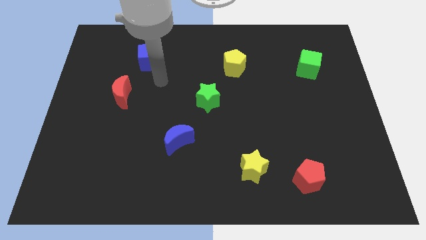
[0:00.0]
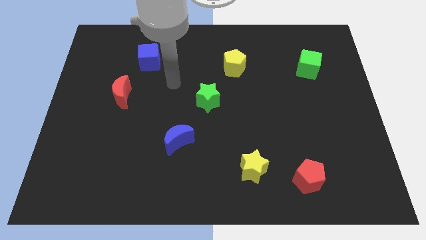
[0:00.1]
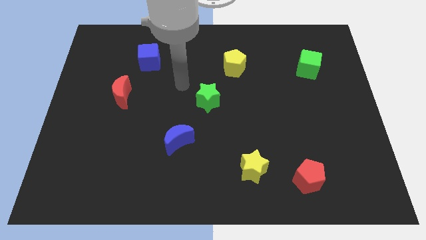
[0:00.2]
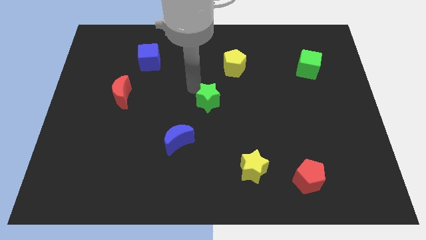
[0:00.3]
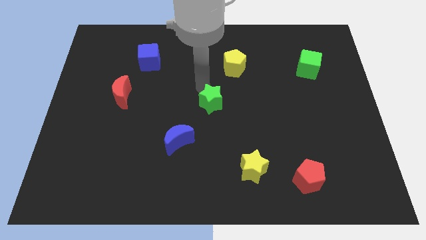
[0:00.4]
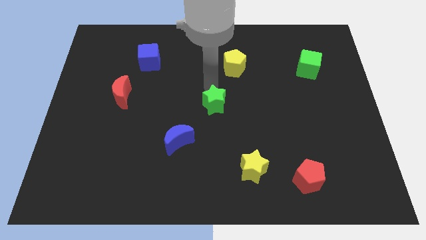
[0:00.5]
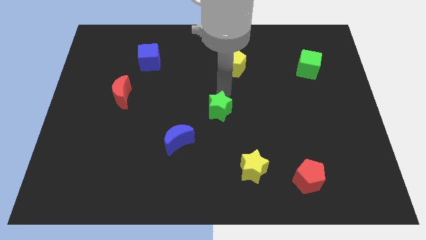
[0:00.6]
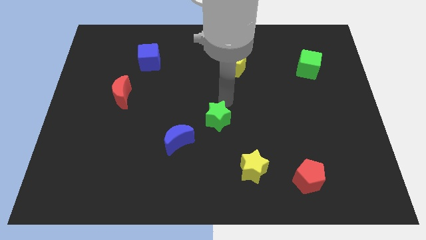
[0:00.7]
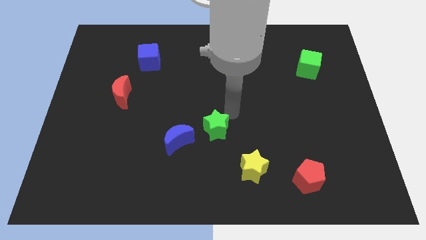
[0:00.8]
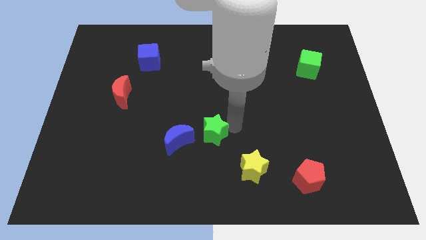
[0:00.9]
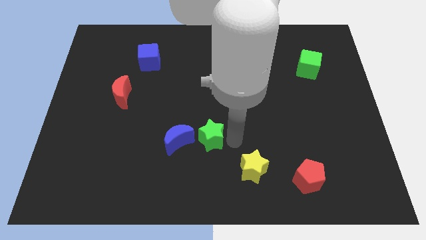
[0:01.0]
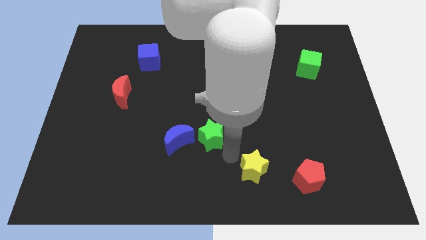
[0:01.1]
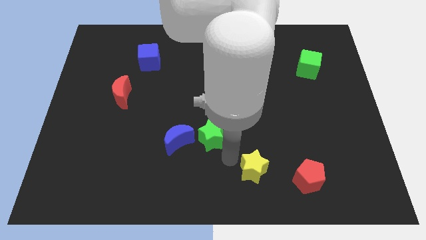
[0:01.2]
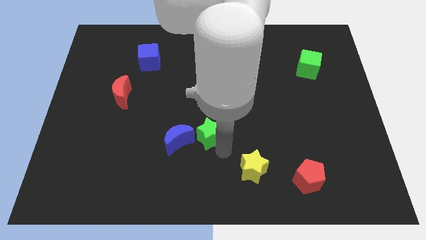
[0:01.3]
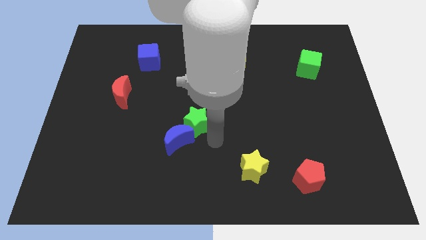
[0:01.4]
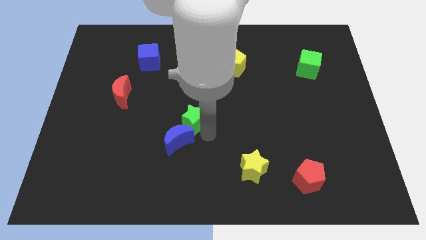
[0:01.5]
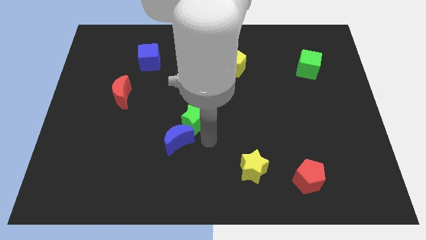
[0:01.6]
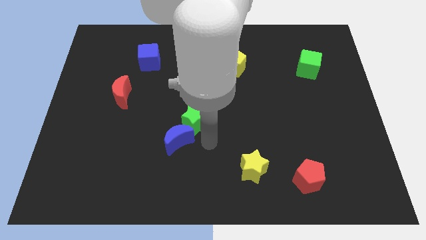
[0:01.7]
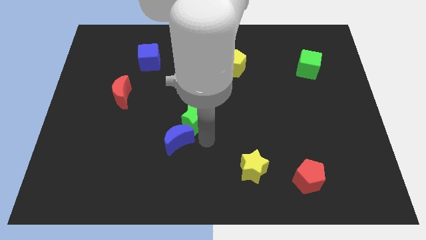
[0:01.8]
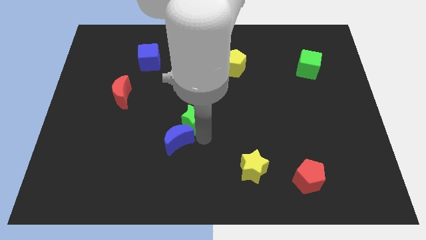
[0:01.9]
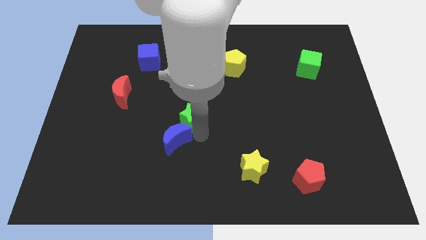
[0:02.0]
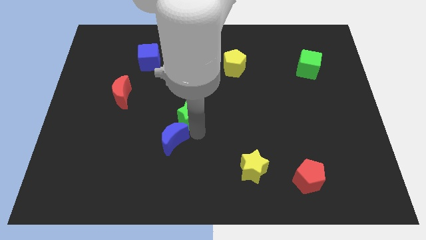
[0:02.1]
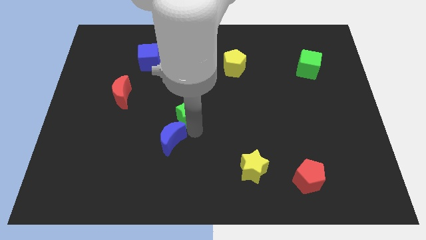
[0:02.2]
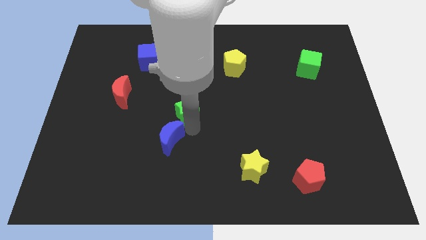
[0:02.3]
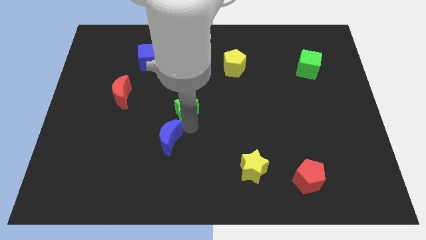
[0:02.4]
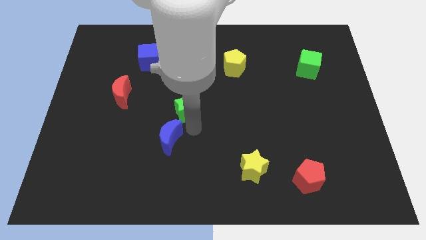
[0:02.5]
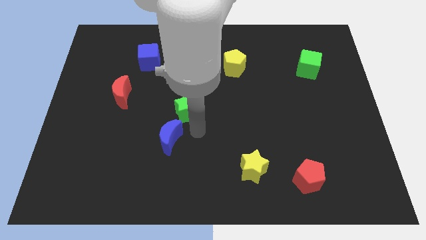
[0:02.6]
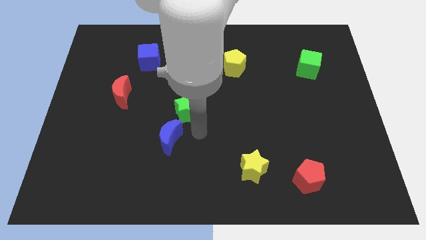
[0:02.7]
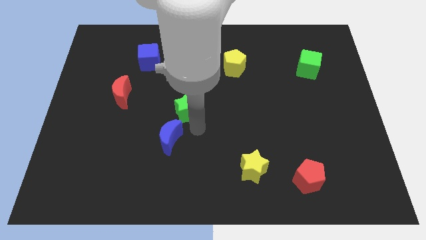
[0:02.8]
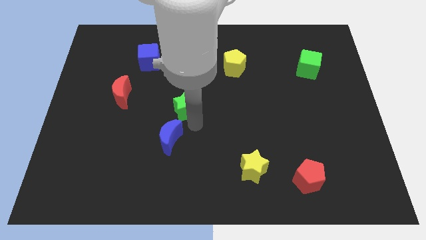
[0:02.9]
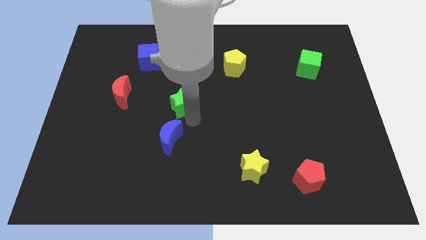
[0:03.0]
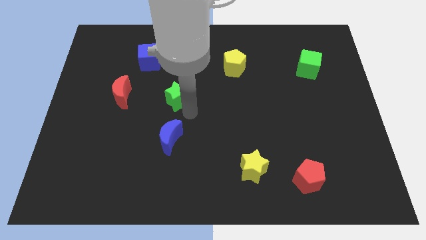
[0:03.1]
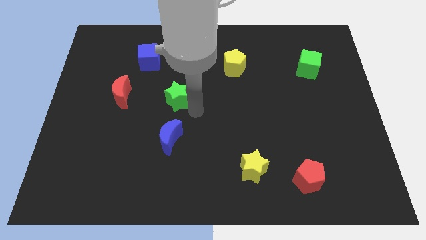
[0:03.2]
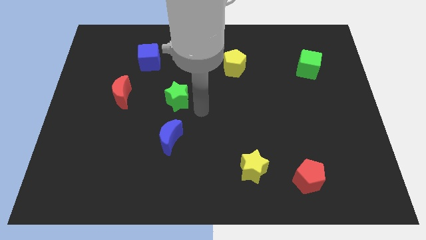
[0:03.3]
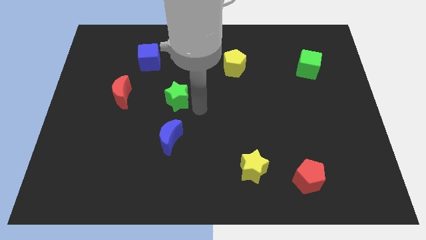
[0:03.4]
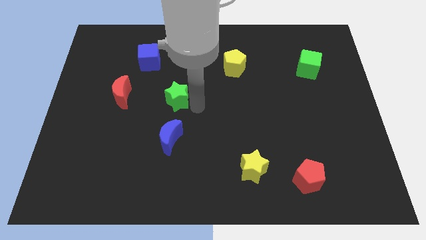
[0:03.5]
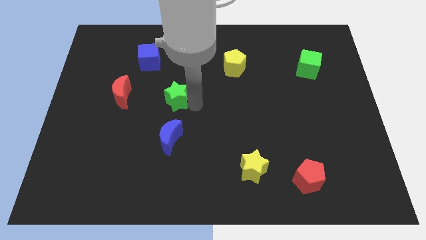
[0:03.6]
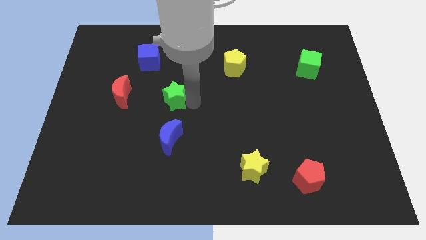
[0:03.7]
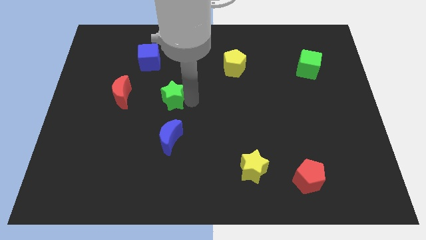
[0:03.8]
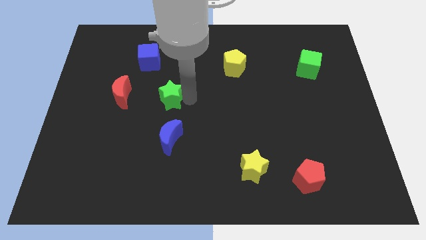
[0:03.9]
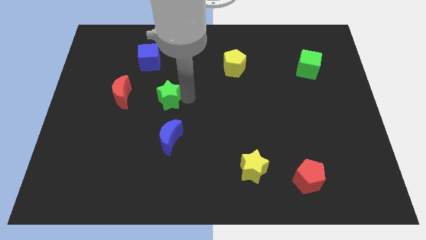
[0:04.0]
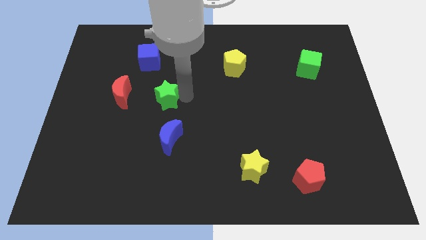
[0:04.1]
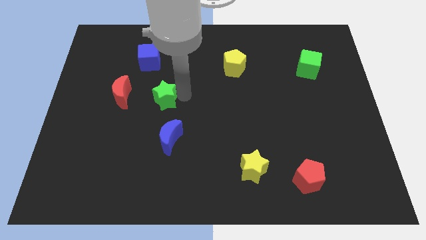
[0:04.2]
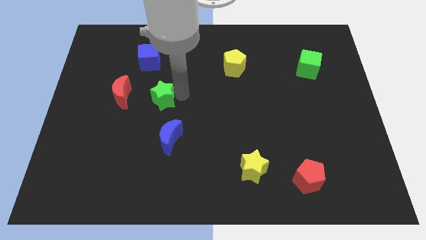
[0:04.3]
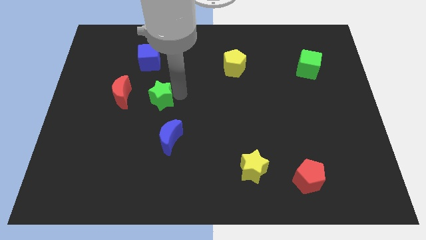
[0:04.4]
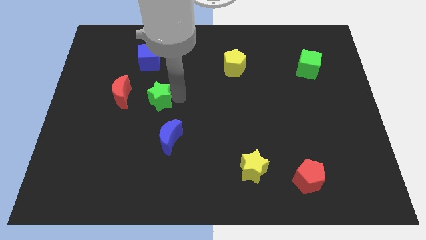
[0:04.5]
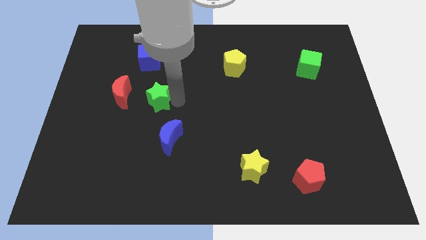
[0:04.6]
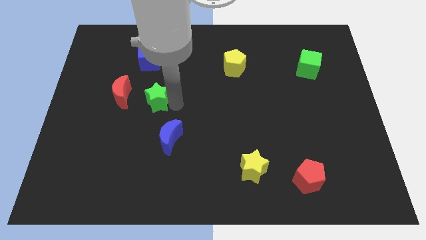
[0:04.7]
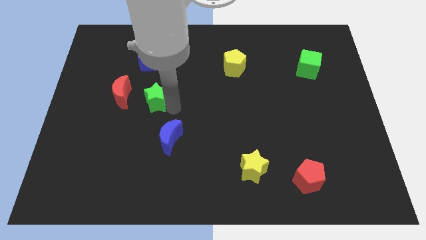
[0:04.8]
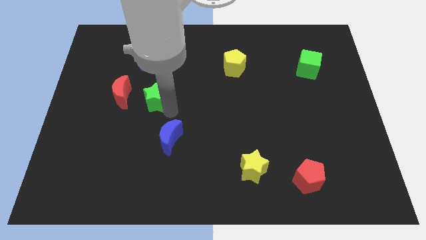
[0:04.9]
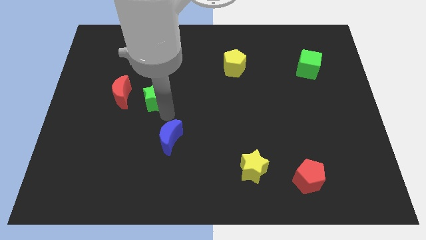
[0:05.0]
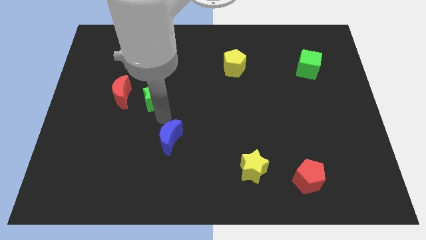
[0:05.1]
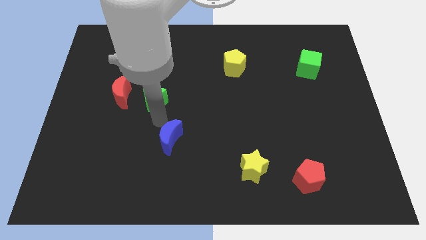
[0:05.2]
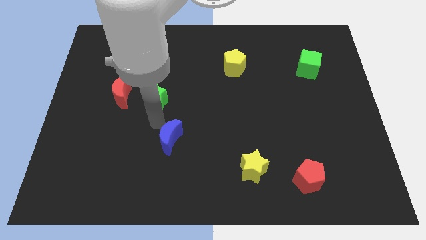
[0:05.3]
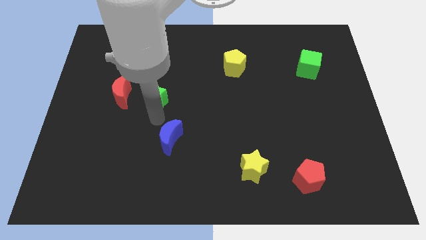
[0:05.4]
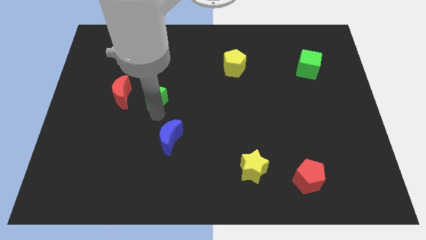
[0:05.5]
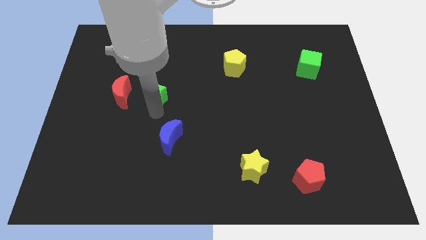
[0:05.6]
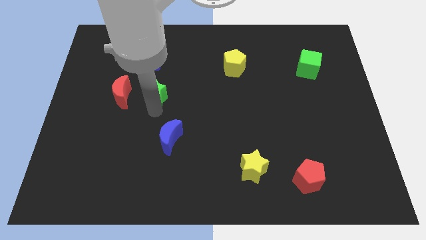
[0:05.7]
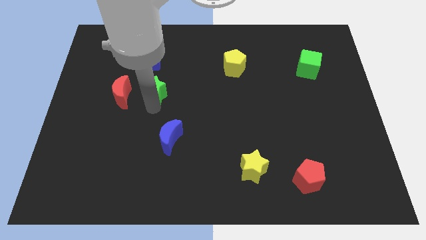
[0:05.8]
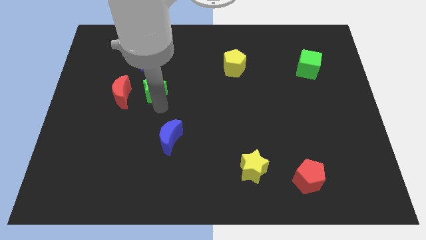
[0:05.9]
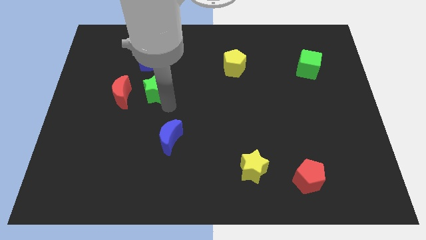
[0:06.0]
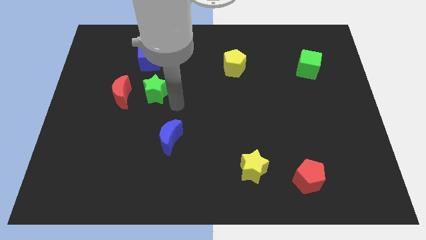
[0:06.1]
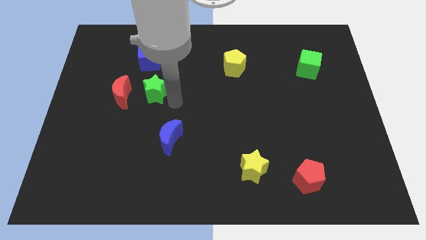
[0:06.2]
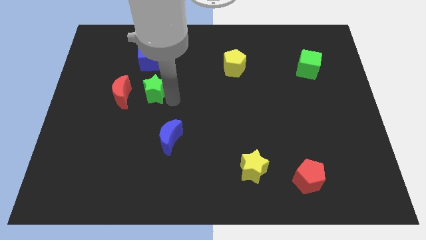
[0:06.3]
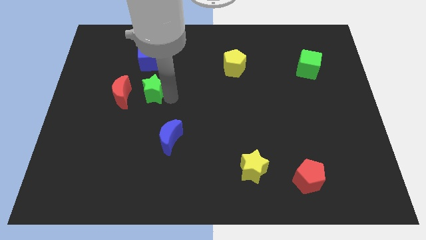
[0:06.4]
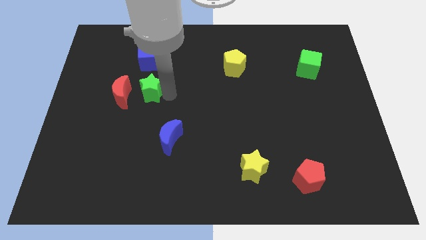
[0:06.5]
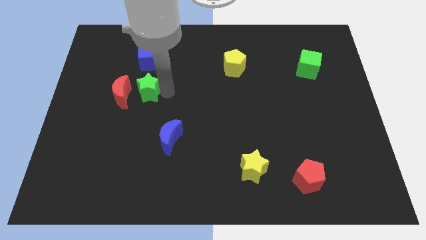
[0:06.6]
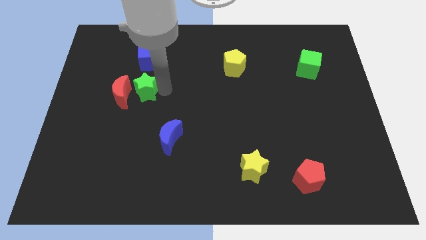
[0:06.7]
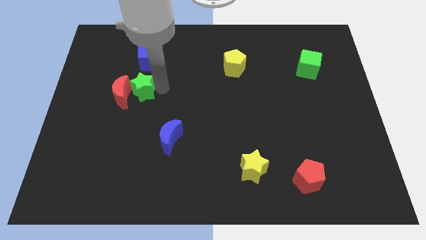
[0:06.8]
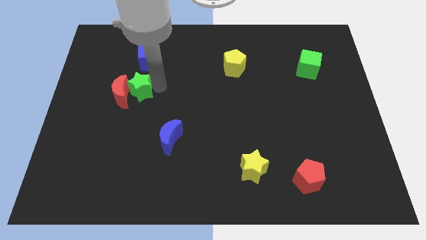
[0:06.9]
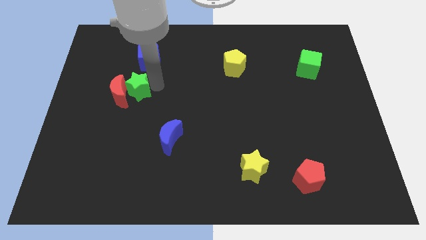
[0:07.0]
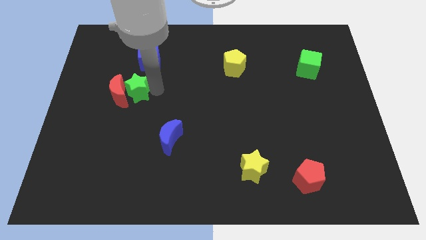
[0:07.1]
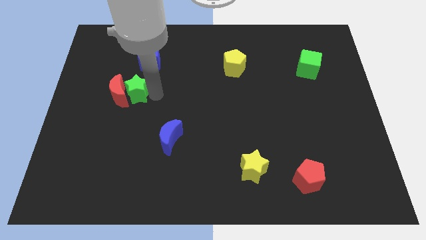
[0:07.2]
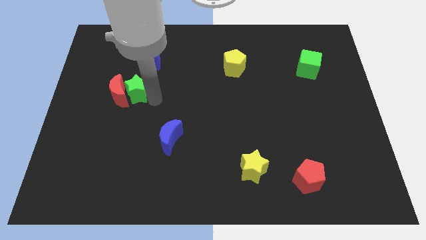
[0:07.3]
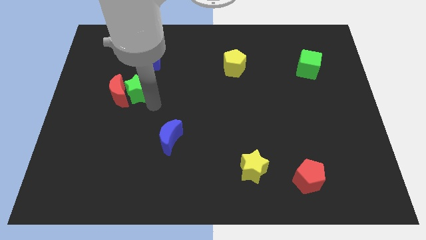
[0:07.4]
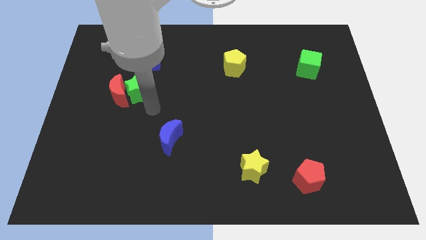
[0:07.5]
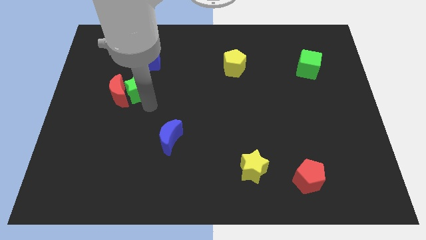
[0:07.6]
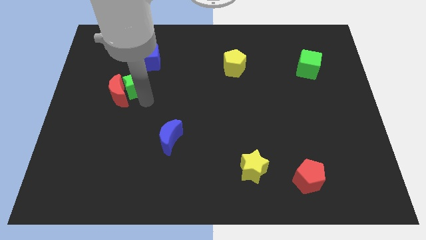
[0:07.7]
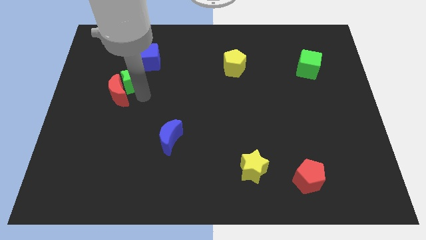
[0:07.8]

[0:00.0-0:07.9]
put the green star to the bottom left side of the blue cube
